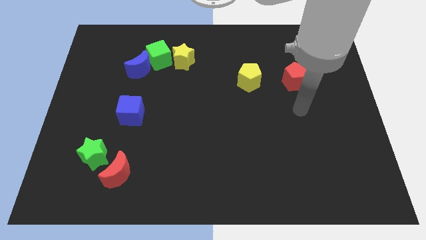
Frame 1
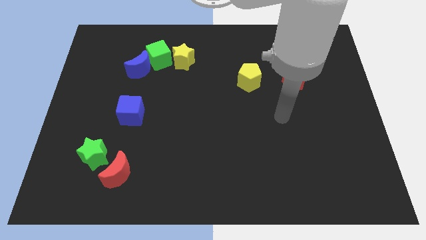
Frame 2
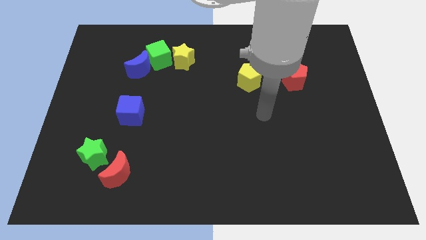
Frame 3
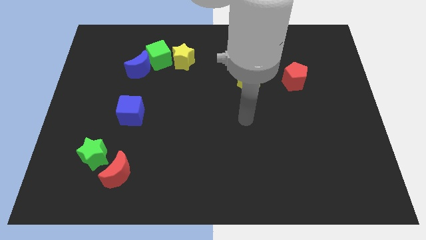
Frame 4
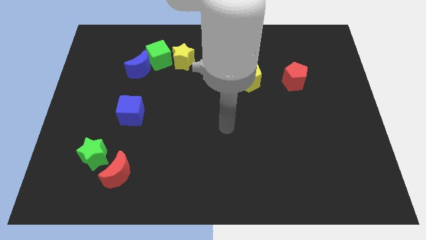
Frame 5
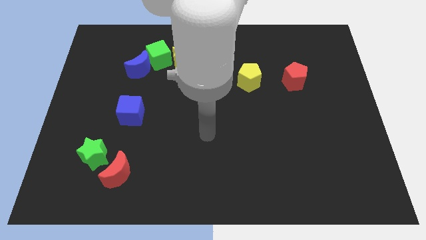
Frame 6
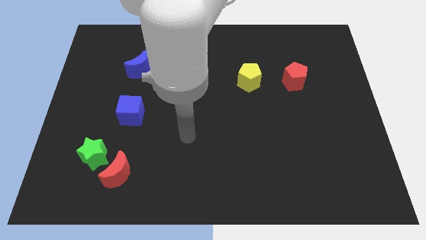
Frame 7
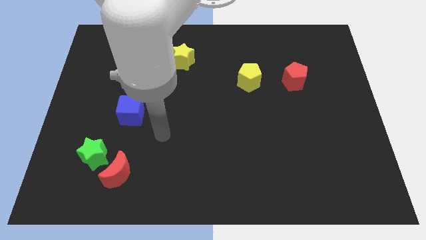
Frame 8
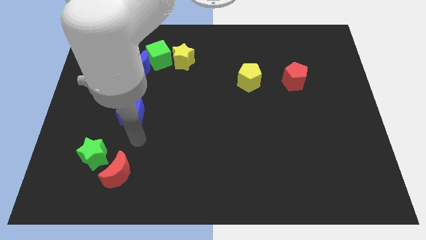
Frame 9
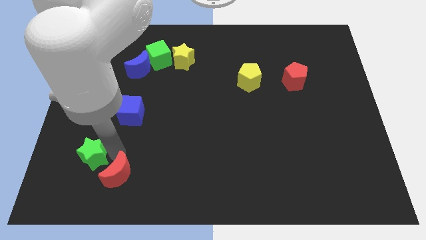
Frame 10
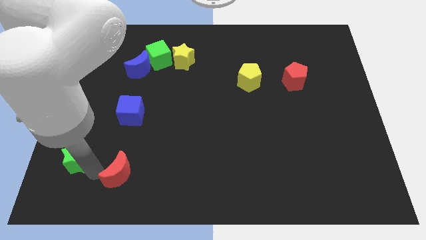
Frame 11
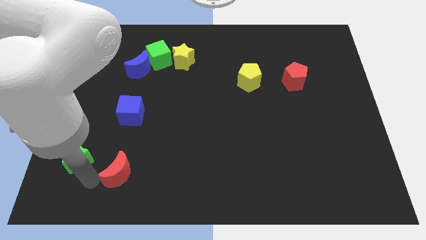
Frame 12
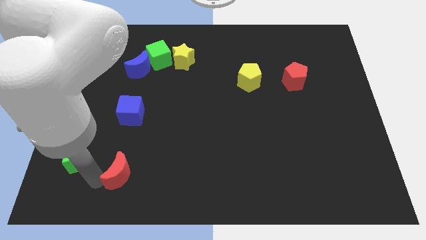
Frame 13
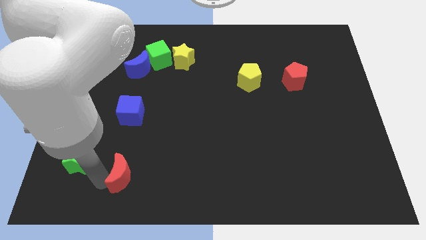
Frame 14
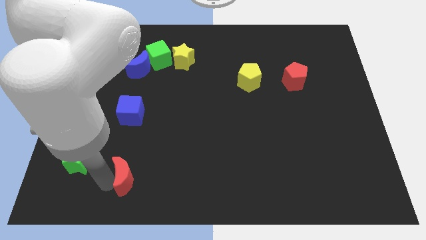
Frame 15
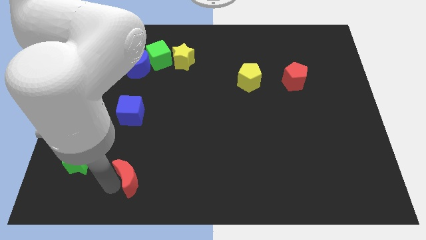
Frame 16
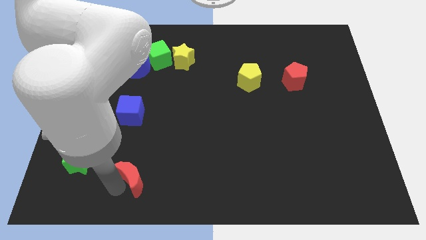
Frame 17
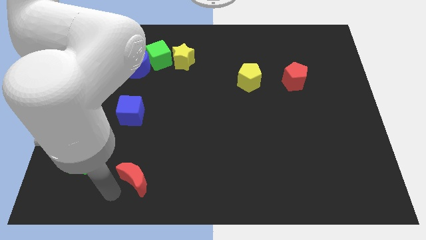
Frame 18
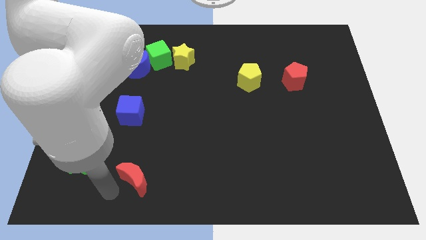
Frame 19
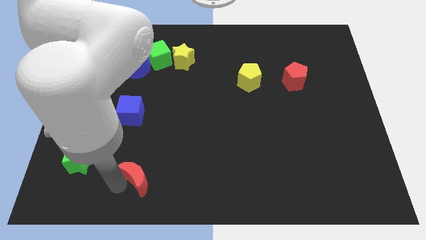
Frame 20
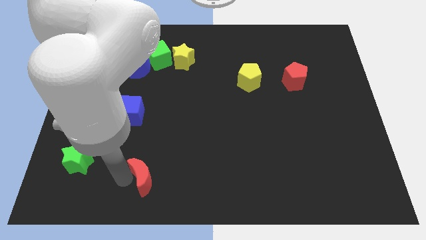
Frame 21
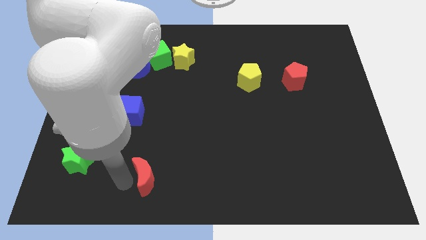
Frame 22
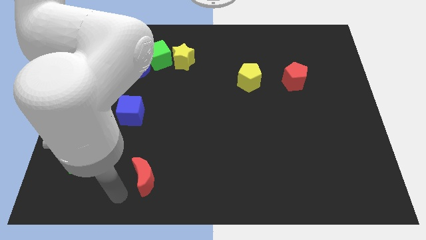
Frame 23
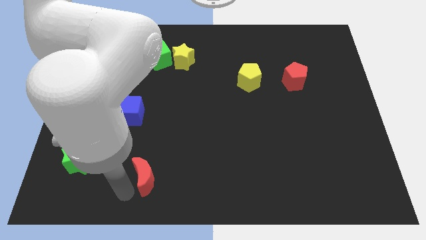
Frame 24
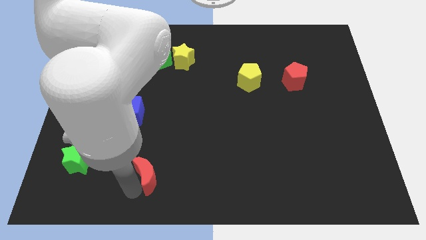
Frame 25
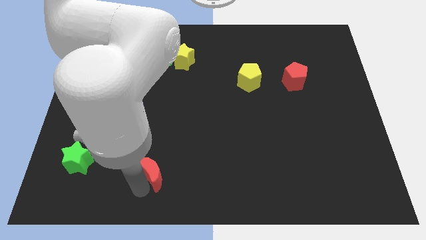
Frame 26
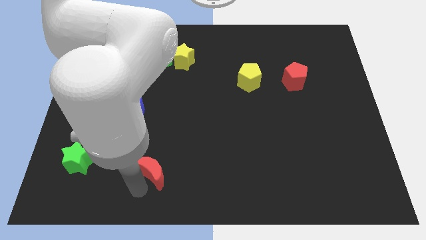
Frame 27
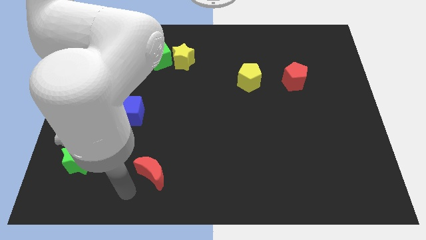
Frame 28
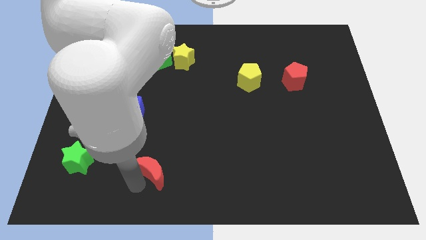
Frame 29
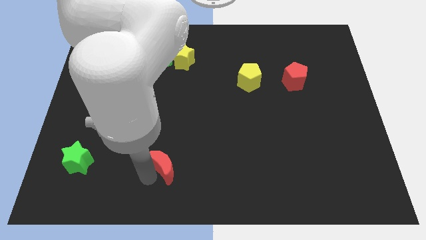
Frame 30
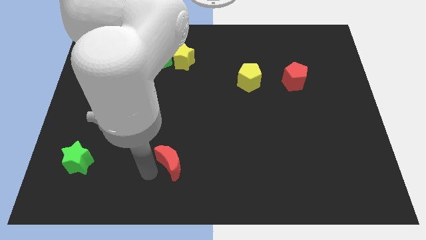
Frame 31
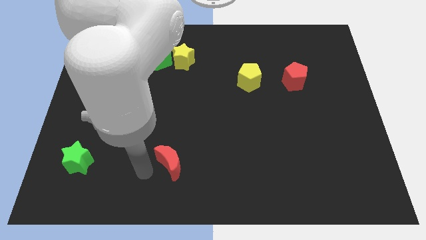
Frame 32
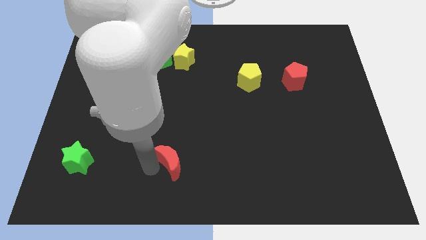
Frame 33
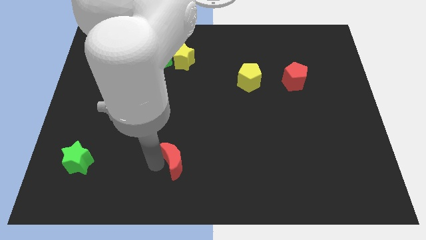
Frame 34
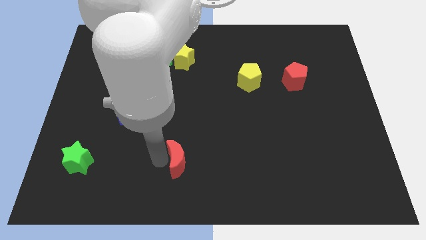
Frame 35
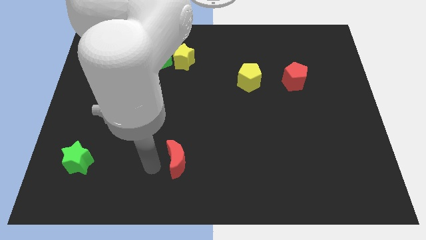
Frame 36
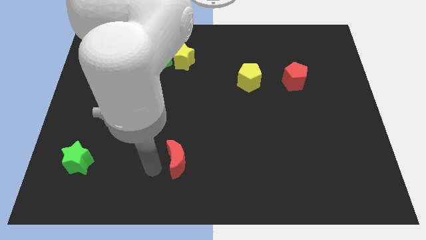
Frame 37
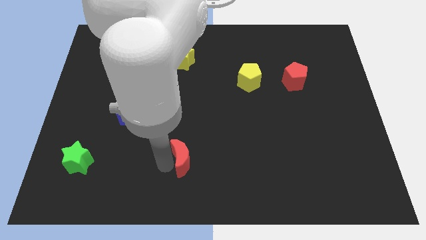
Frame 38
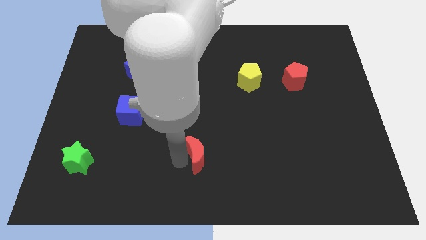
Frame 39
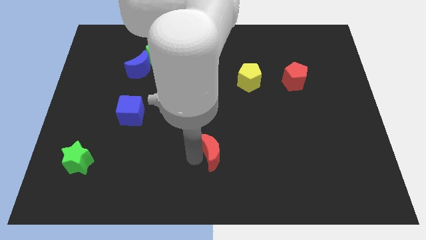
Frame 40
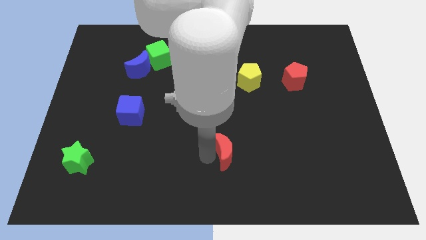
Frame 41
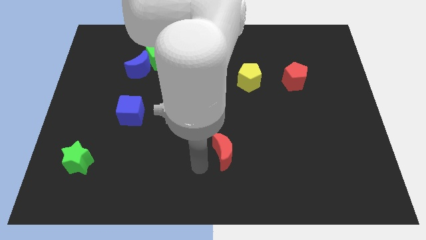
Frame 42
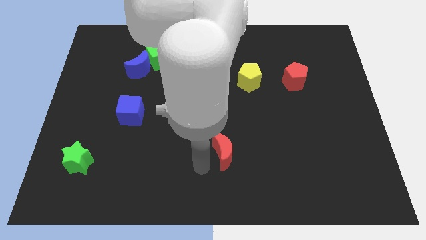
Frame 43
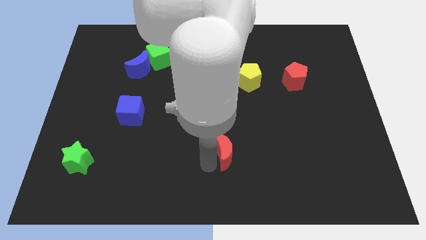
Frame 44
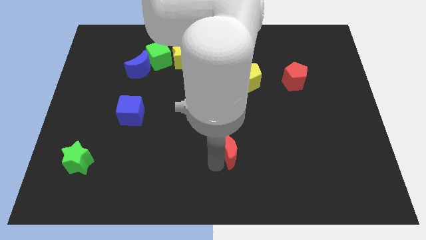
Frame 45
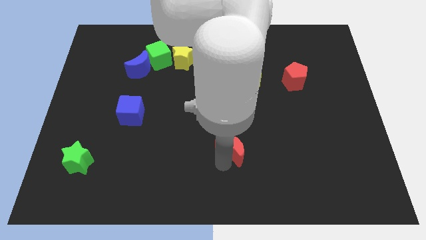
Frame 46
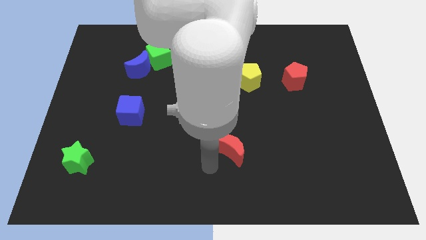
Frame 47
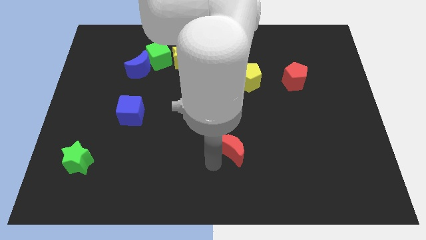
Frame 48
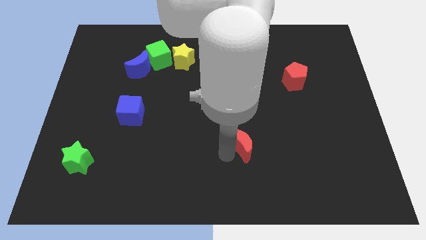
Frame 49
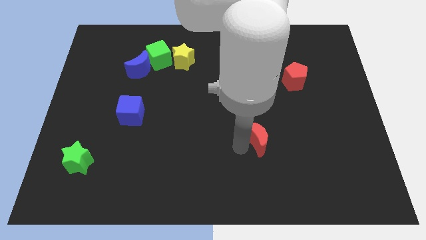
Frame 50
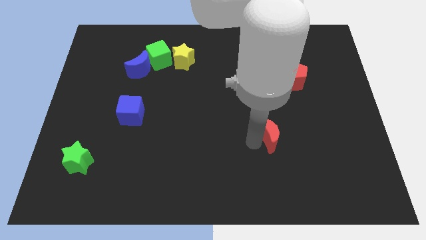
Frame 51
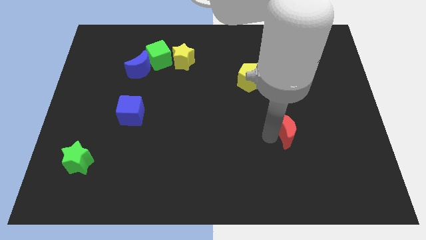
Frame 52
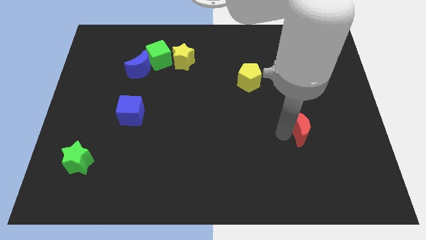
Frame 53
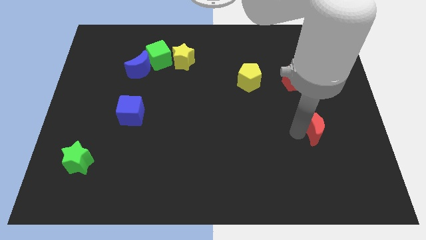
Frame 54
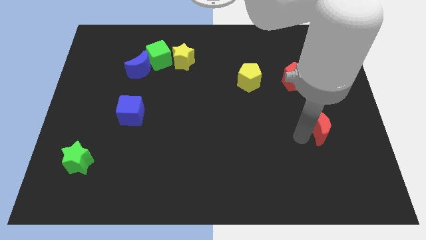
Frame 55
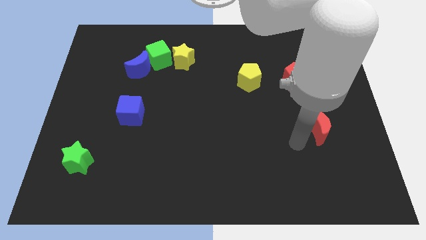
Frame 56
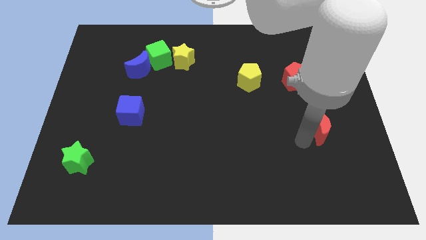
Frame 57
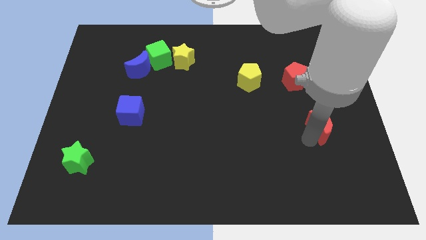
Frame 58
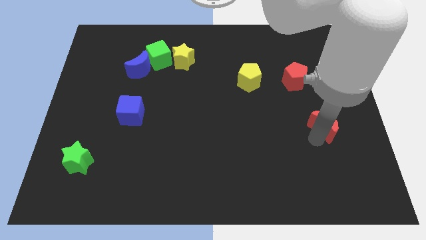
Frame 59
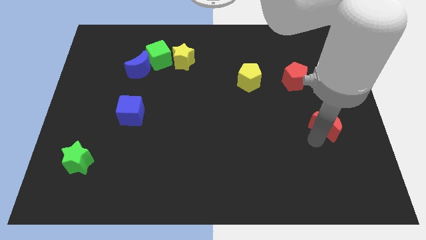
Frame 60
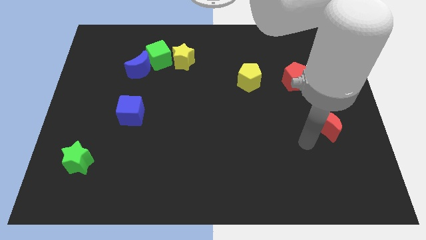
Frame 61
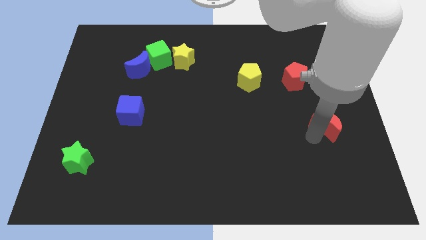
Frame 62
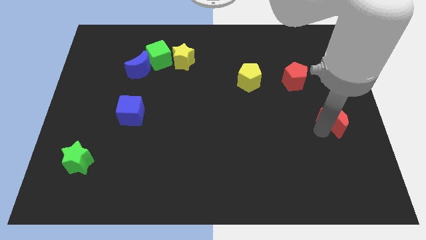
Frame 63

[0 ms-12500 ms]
put the red moon to the right side of the board

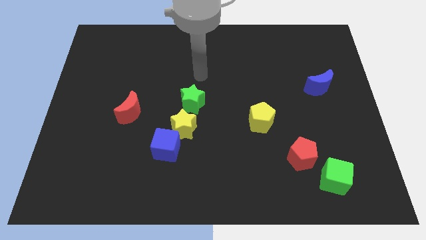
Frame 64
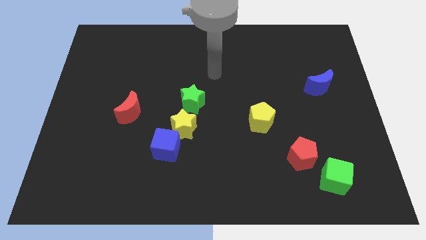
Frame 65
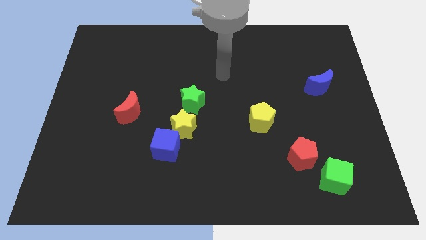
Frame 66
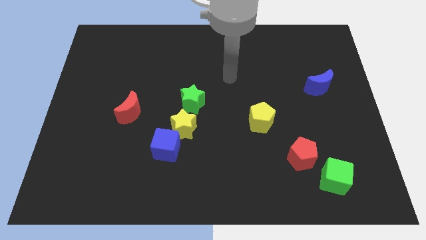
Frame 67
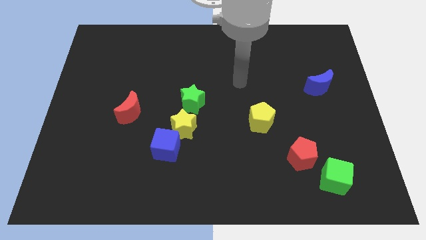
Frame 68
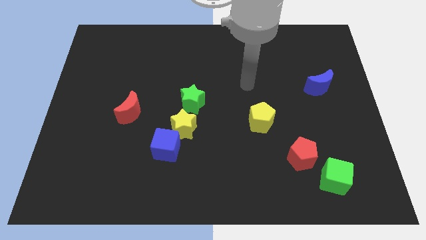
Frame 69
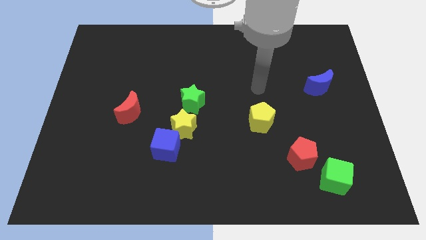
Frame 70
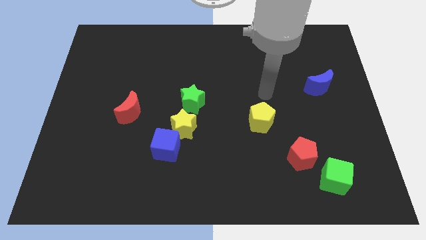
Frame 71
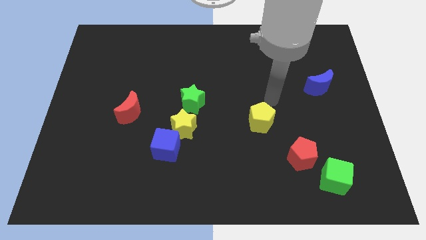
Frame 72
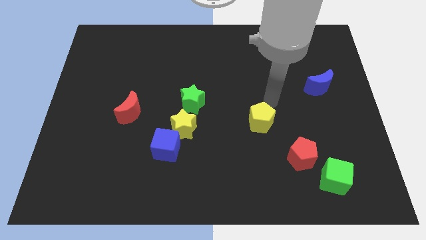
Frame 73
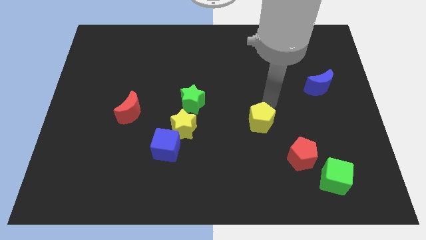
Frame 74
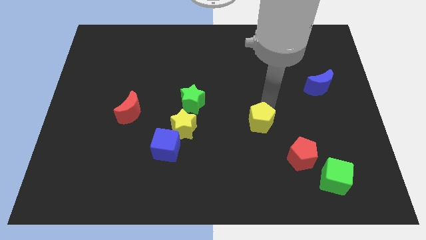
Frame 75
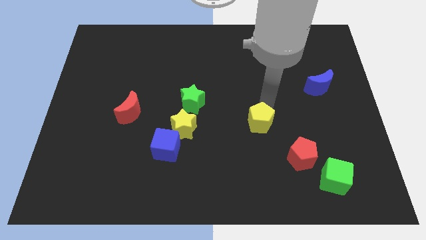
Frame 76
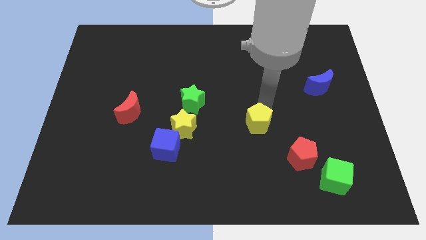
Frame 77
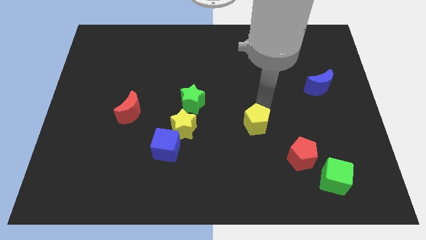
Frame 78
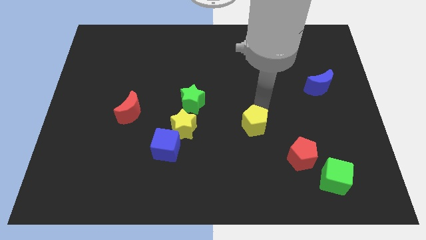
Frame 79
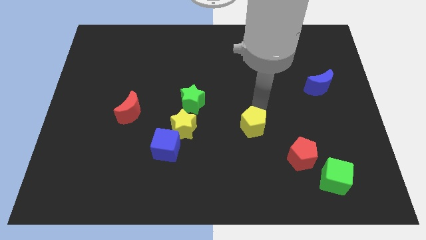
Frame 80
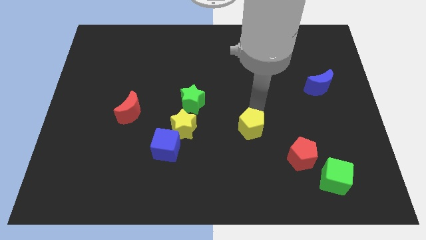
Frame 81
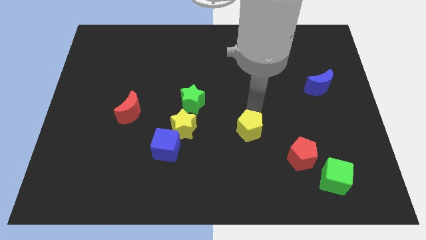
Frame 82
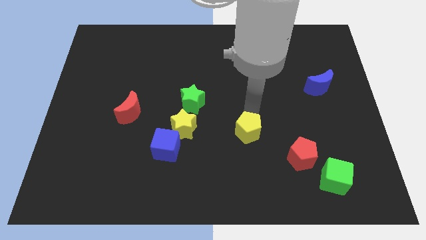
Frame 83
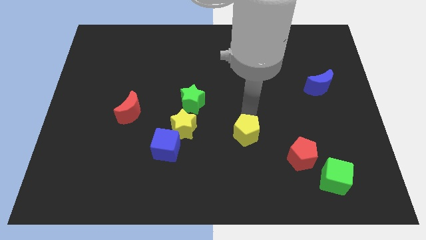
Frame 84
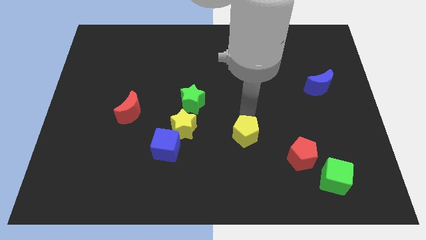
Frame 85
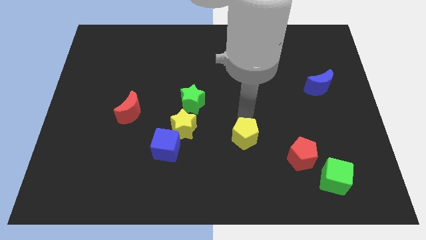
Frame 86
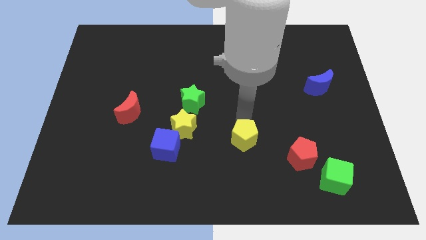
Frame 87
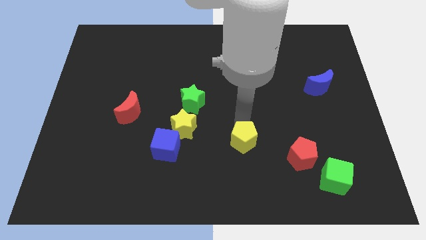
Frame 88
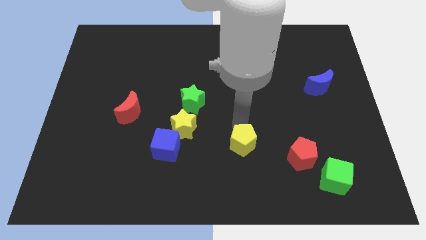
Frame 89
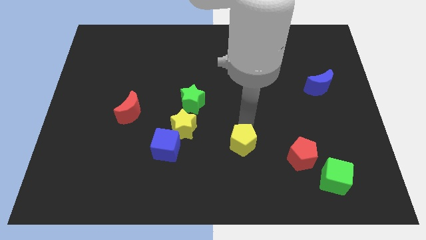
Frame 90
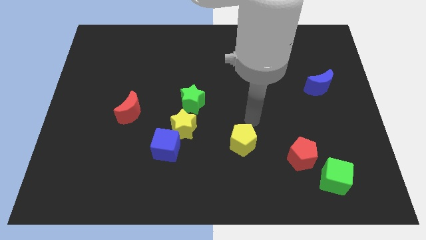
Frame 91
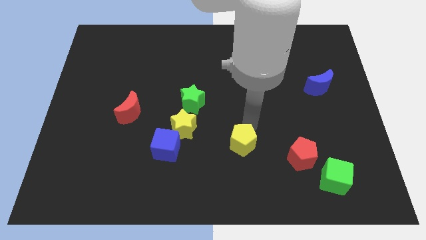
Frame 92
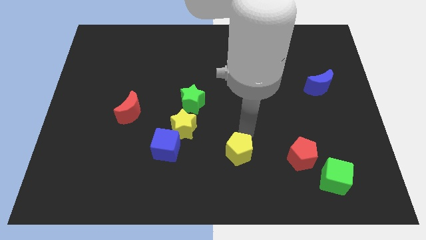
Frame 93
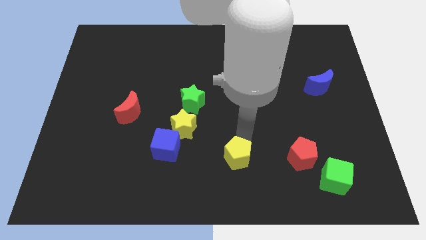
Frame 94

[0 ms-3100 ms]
push the yellow pentagon to the bottom
